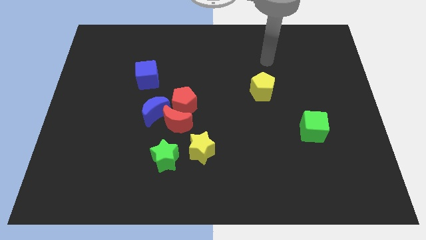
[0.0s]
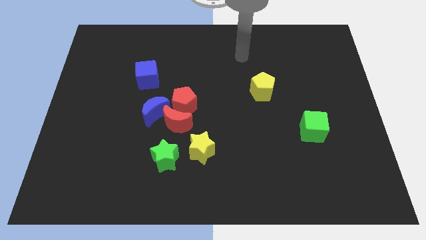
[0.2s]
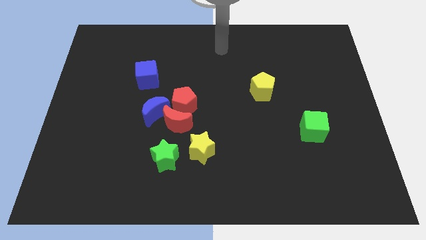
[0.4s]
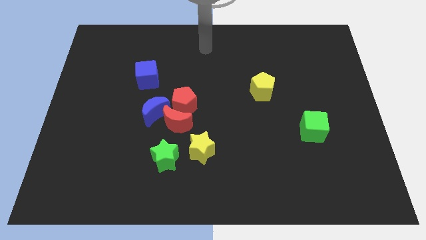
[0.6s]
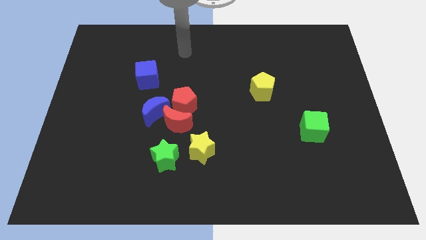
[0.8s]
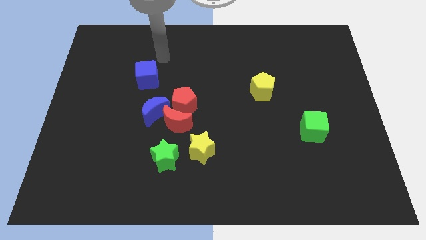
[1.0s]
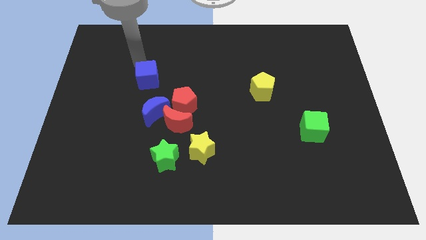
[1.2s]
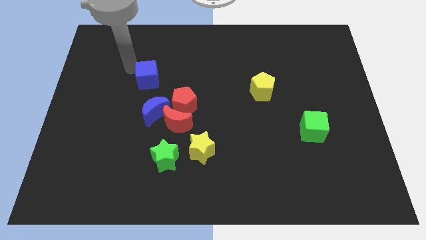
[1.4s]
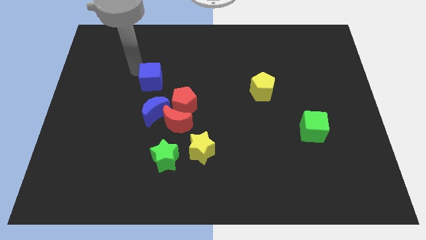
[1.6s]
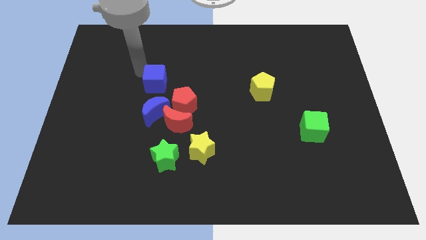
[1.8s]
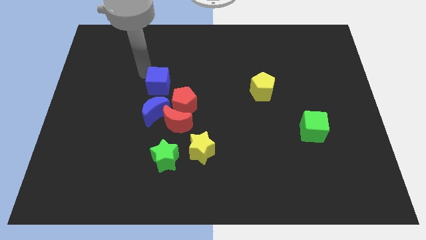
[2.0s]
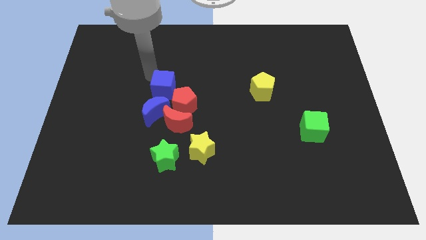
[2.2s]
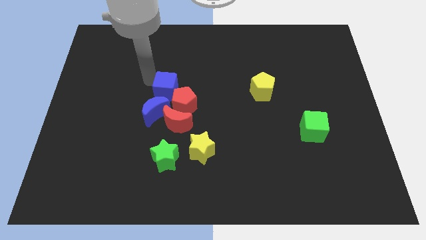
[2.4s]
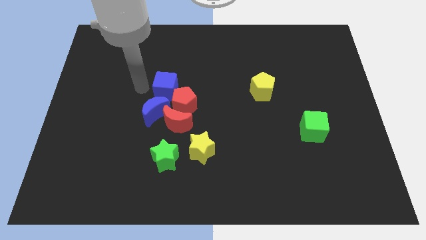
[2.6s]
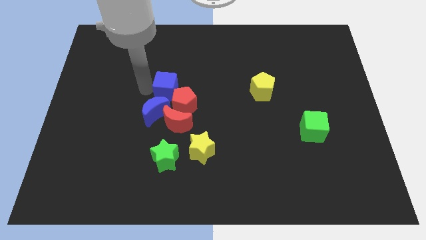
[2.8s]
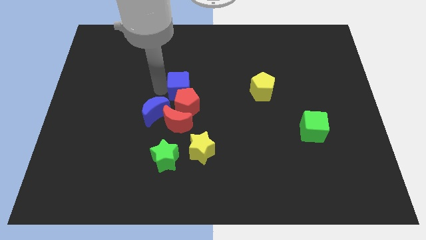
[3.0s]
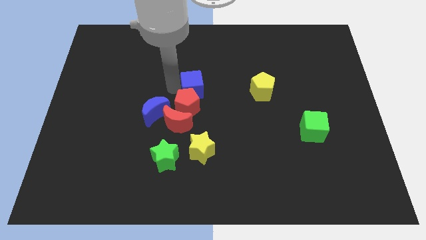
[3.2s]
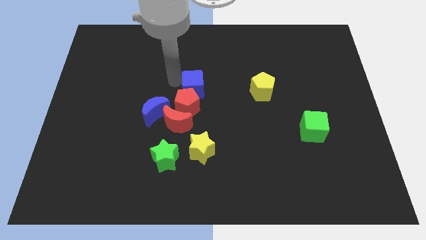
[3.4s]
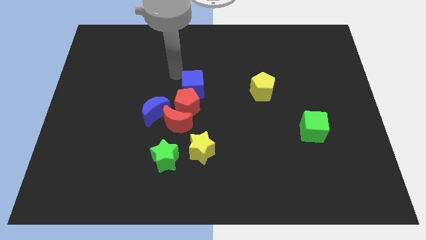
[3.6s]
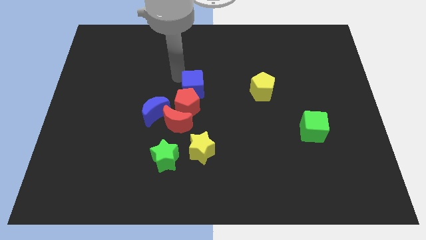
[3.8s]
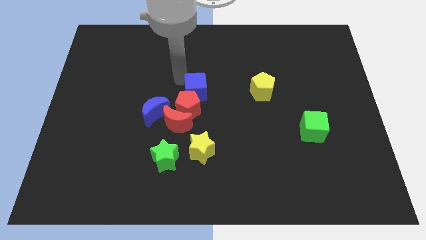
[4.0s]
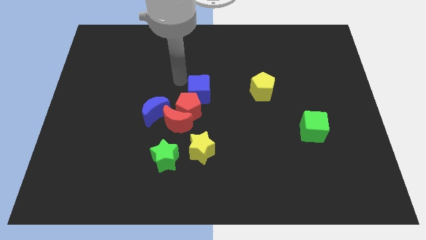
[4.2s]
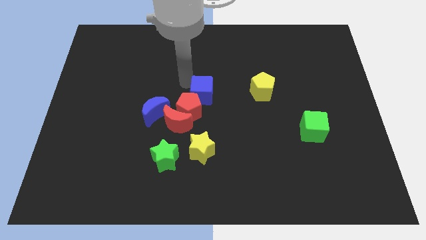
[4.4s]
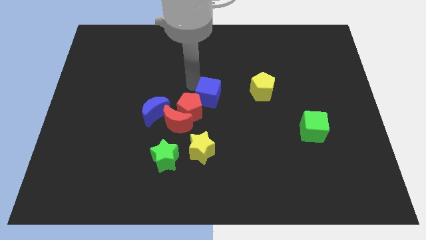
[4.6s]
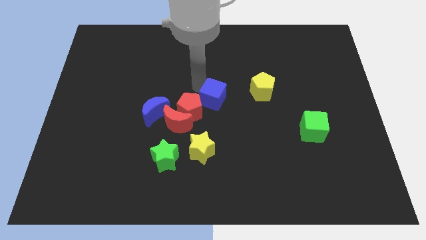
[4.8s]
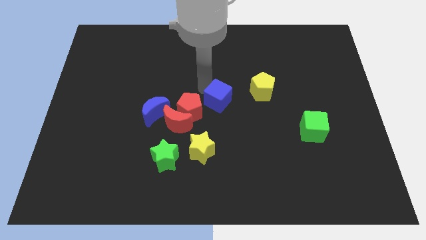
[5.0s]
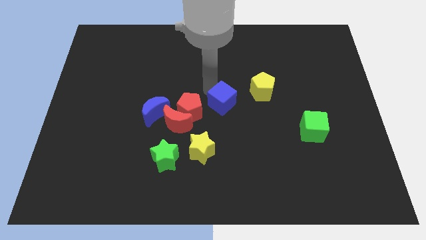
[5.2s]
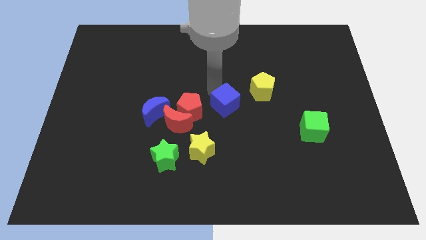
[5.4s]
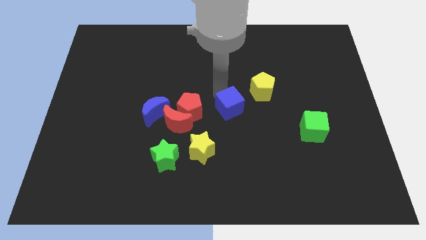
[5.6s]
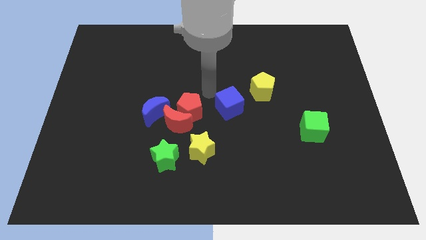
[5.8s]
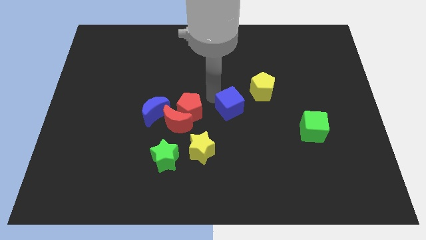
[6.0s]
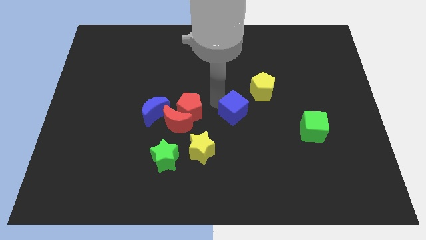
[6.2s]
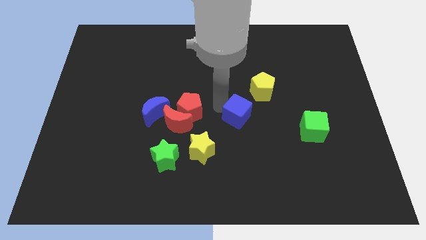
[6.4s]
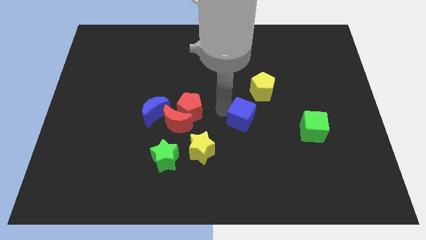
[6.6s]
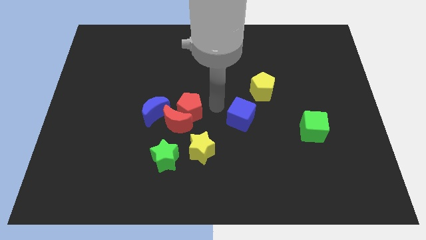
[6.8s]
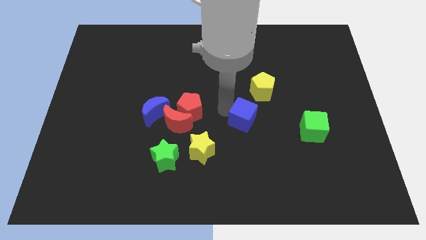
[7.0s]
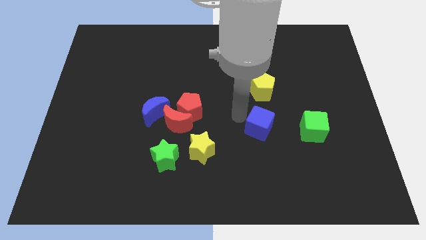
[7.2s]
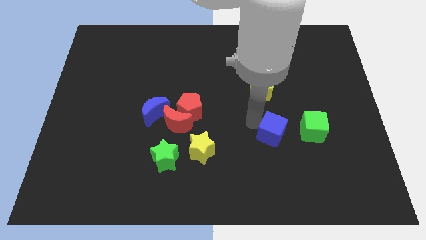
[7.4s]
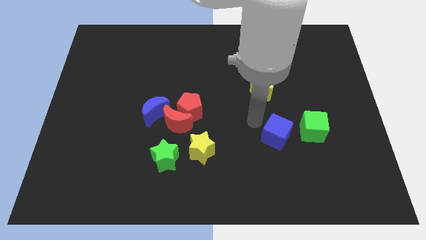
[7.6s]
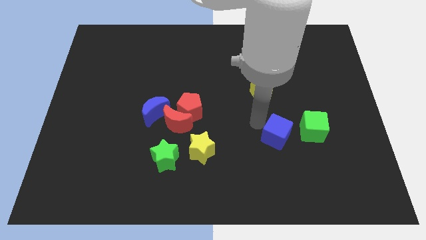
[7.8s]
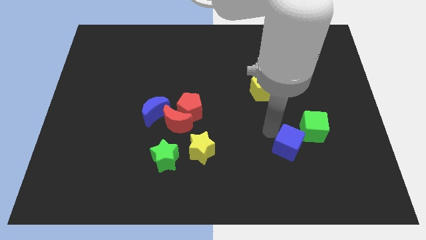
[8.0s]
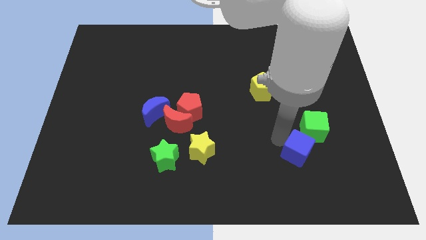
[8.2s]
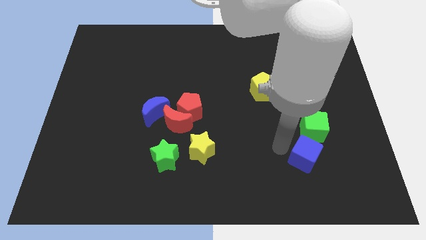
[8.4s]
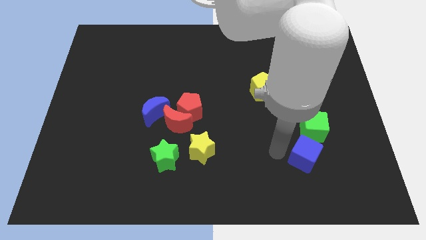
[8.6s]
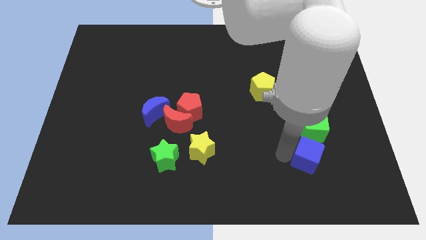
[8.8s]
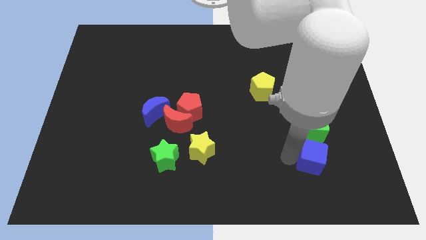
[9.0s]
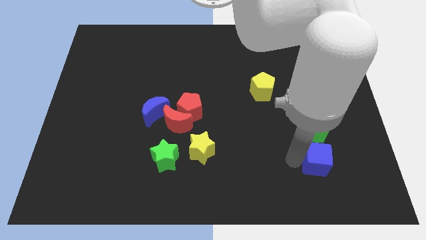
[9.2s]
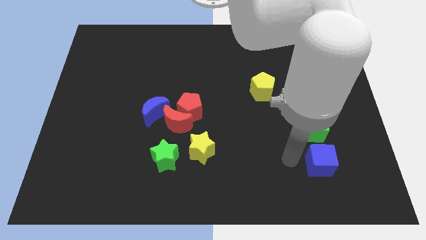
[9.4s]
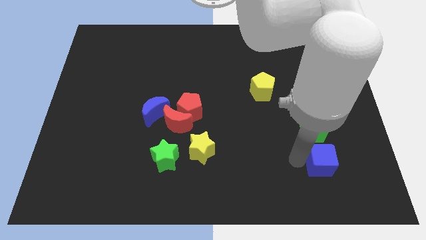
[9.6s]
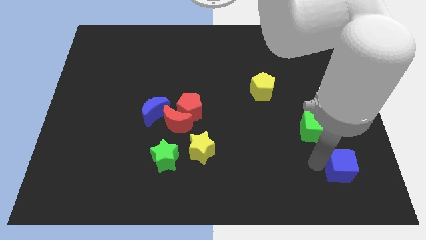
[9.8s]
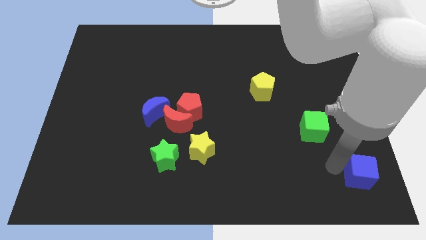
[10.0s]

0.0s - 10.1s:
move the blue cube to the bottom right corner

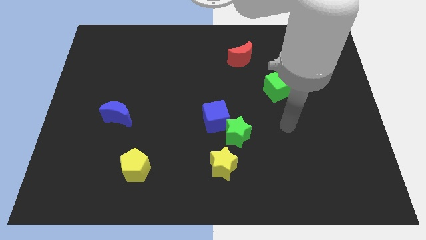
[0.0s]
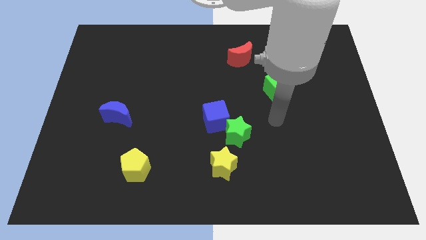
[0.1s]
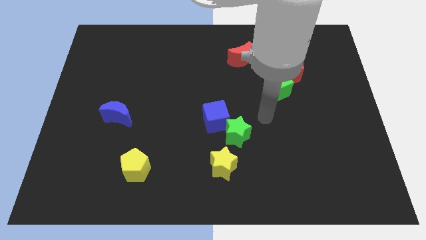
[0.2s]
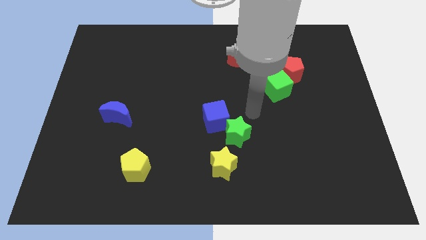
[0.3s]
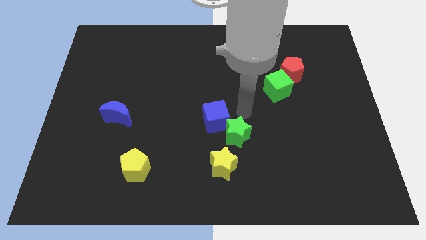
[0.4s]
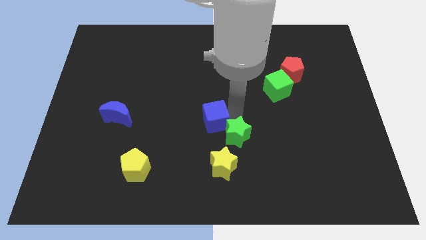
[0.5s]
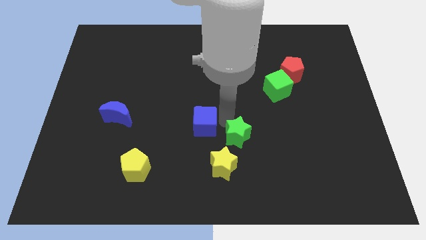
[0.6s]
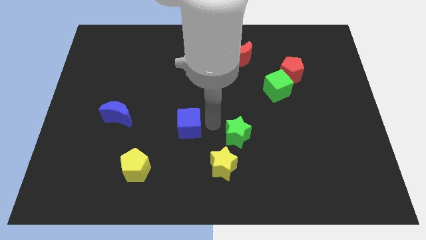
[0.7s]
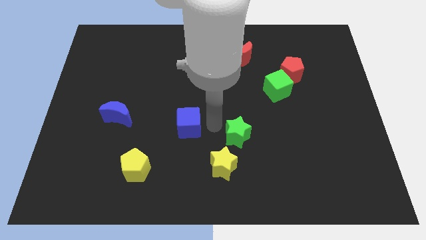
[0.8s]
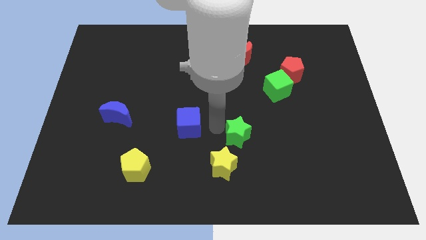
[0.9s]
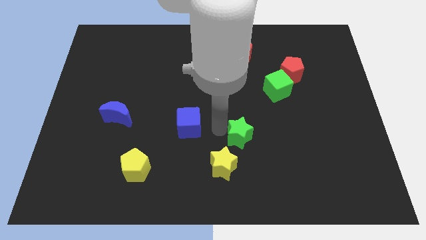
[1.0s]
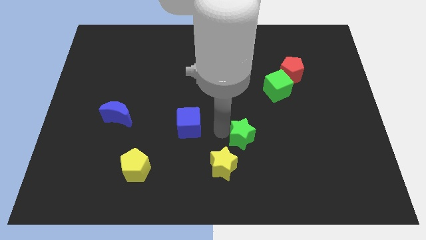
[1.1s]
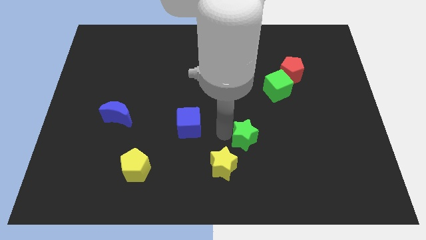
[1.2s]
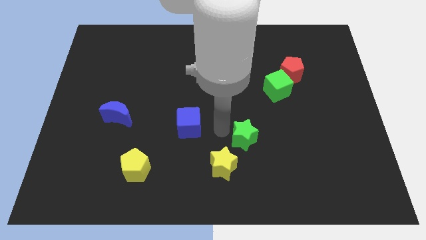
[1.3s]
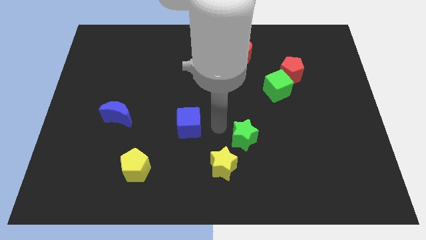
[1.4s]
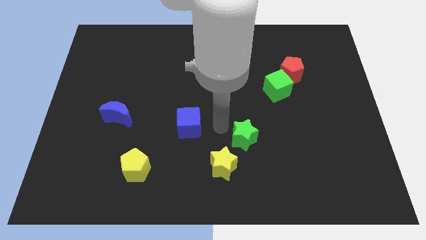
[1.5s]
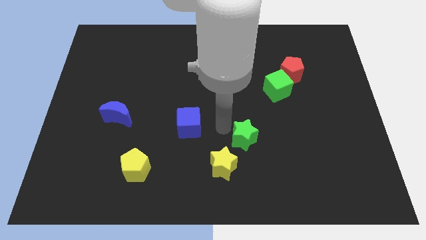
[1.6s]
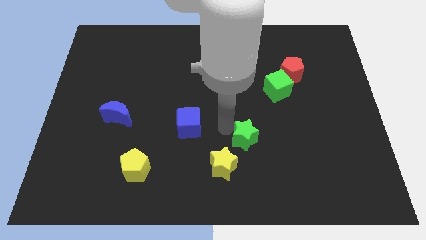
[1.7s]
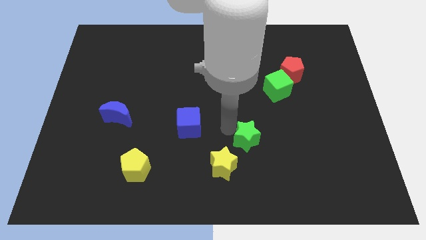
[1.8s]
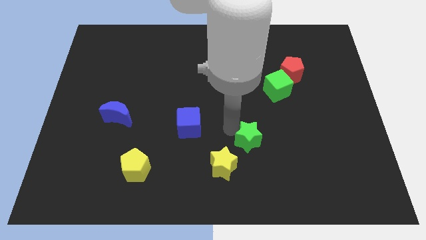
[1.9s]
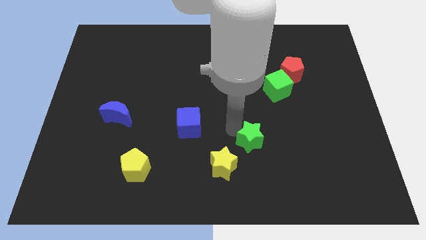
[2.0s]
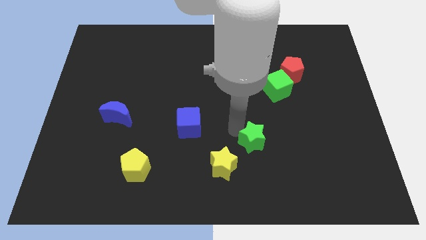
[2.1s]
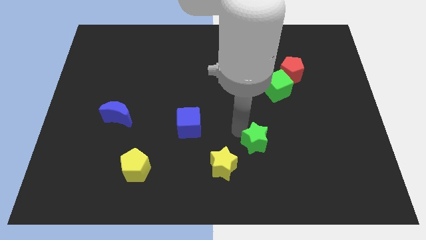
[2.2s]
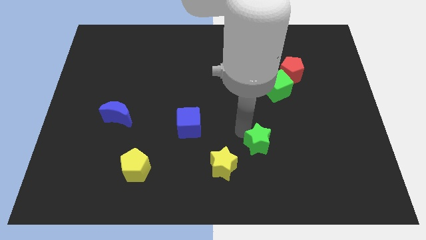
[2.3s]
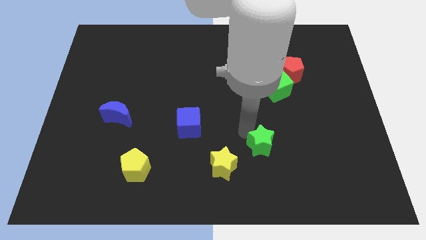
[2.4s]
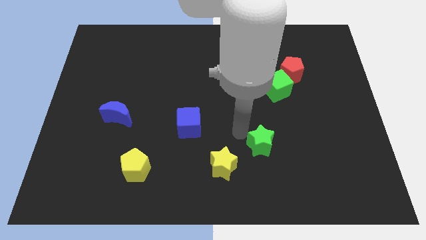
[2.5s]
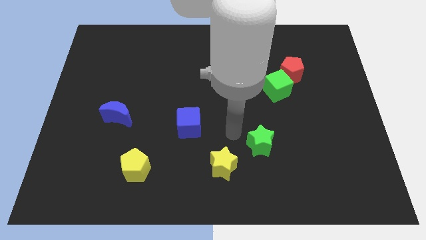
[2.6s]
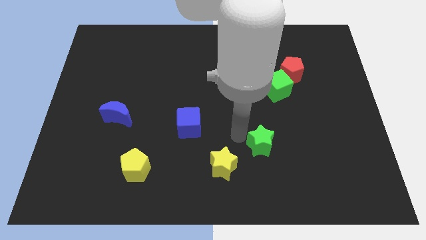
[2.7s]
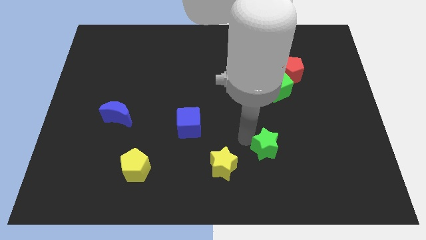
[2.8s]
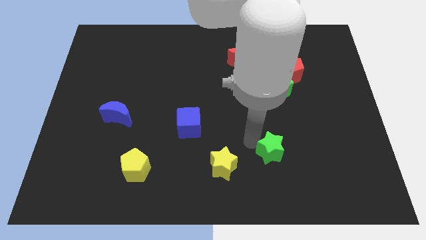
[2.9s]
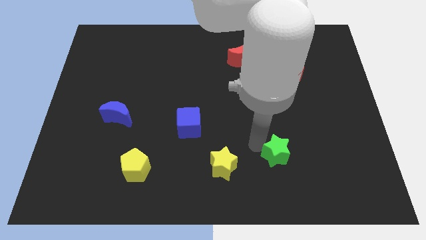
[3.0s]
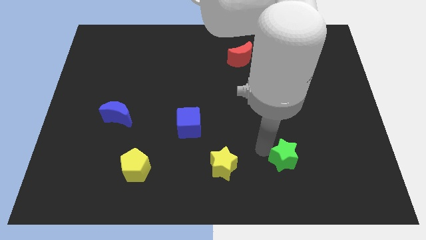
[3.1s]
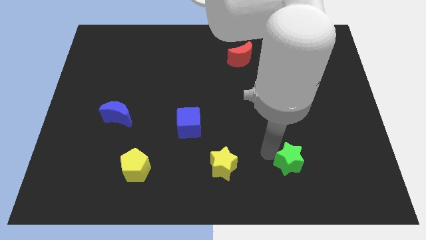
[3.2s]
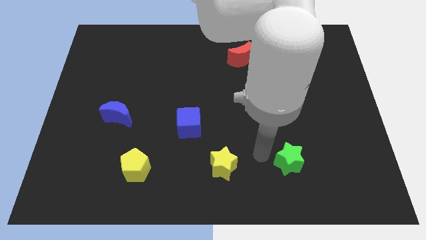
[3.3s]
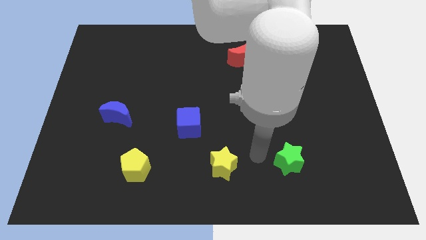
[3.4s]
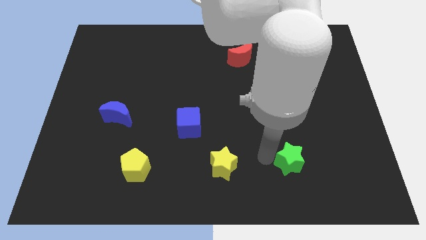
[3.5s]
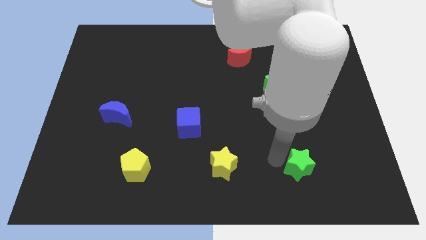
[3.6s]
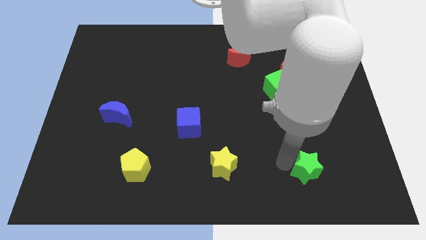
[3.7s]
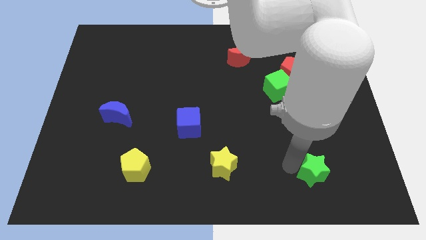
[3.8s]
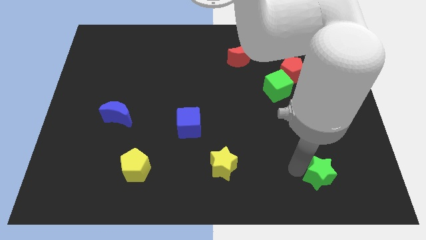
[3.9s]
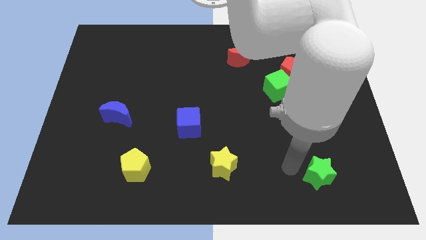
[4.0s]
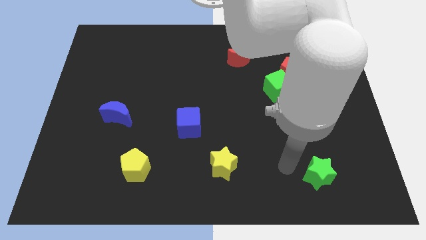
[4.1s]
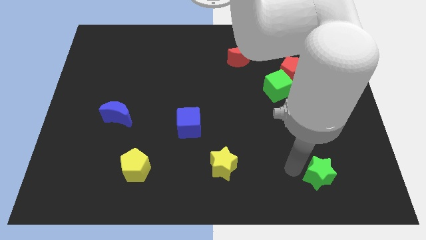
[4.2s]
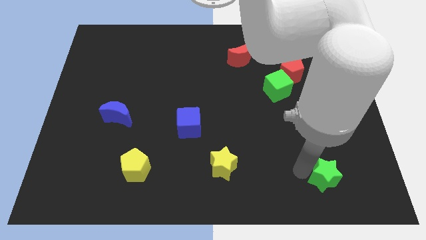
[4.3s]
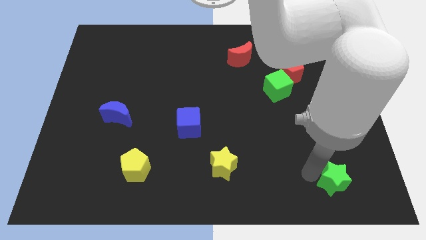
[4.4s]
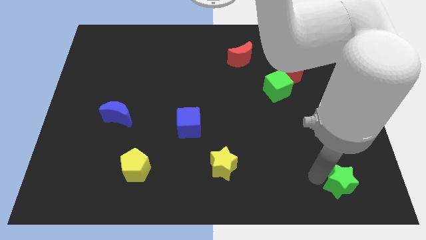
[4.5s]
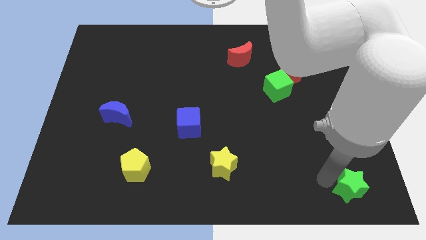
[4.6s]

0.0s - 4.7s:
move the green star to the bottom right corner
